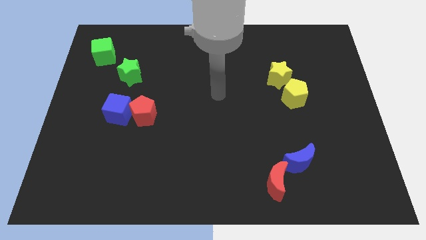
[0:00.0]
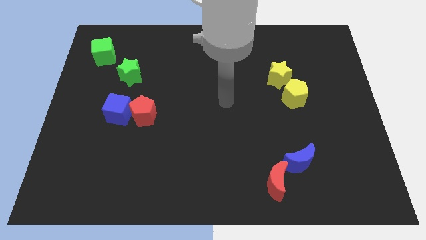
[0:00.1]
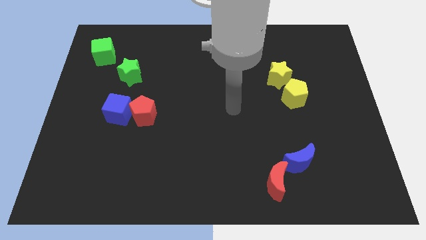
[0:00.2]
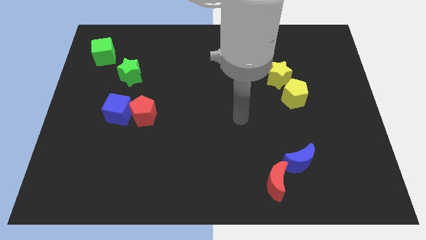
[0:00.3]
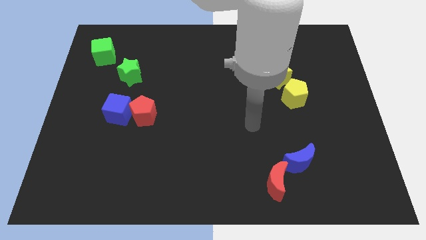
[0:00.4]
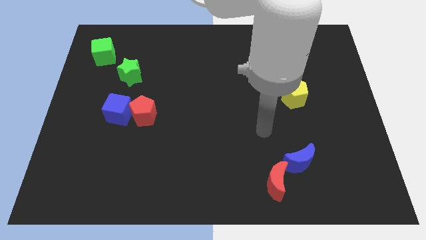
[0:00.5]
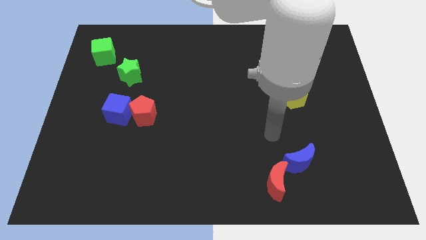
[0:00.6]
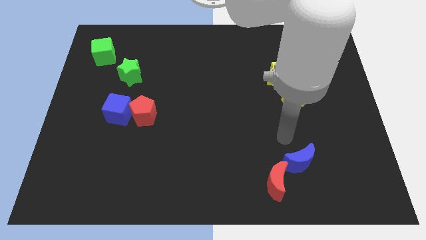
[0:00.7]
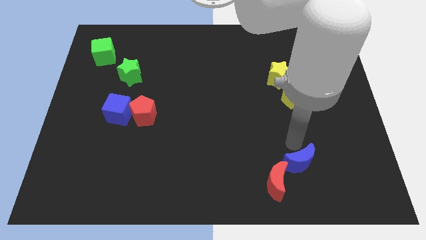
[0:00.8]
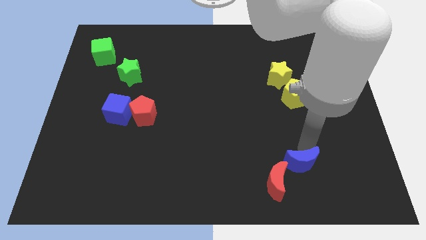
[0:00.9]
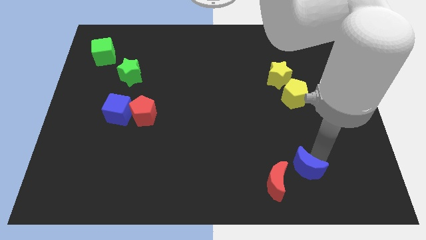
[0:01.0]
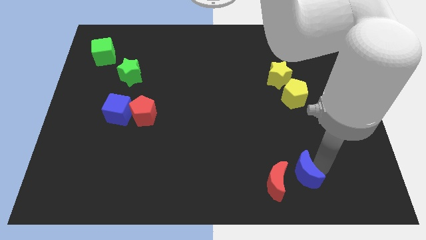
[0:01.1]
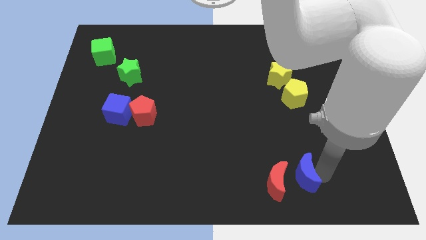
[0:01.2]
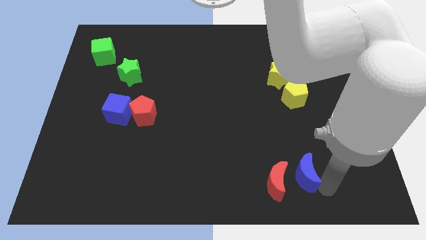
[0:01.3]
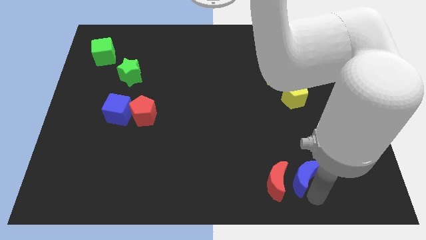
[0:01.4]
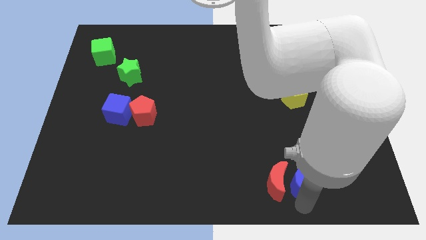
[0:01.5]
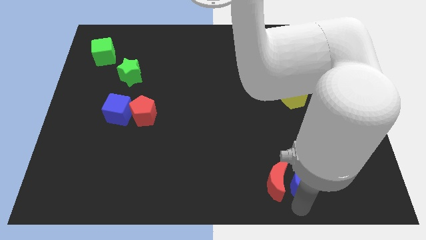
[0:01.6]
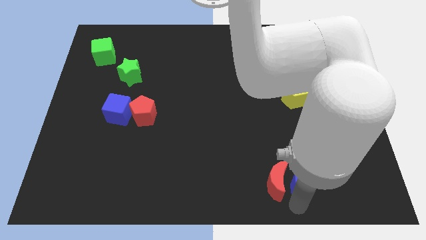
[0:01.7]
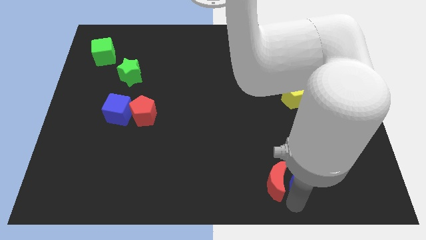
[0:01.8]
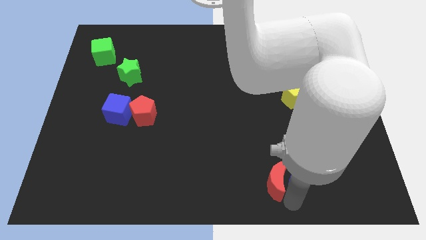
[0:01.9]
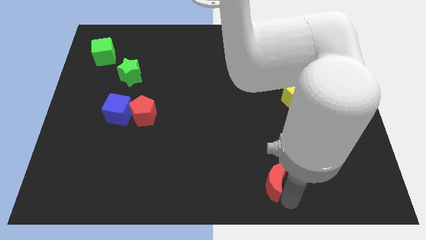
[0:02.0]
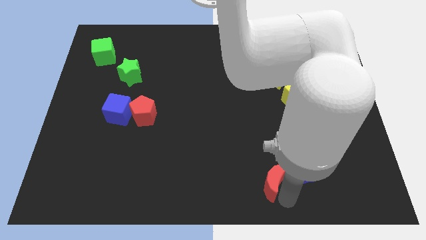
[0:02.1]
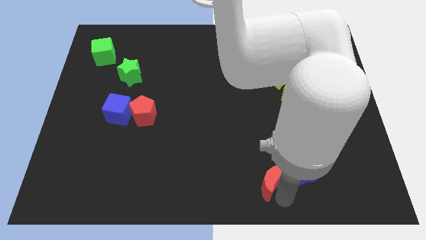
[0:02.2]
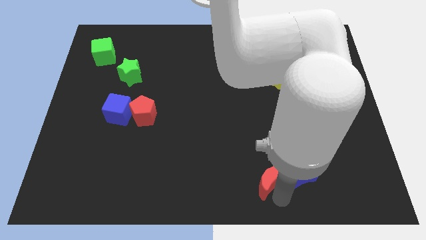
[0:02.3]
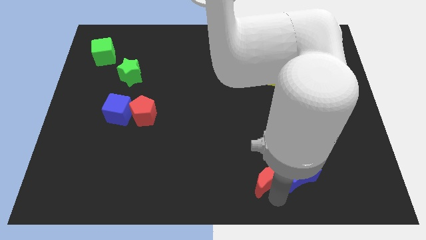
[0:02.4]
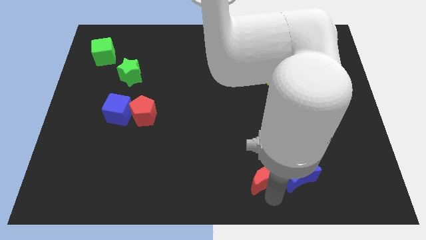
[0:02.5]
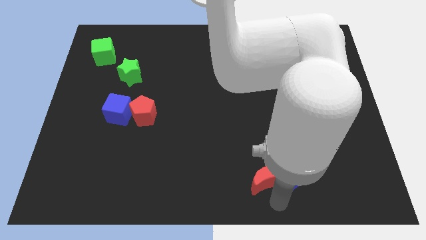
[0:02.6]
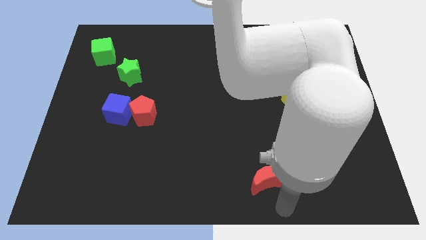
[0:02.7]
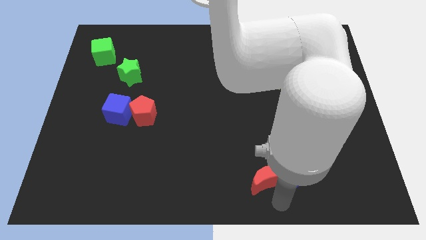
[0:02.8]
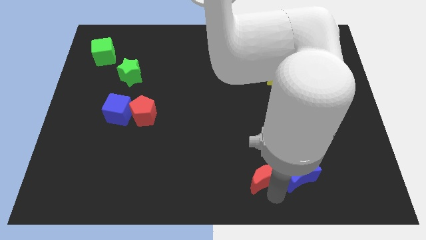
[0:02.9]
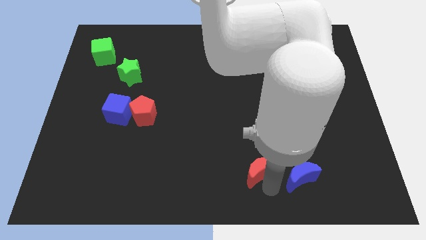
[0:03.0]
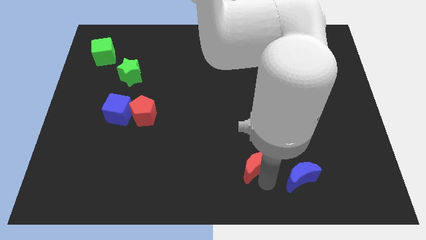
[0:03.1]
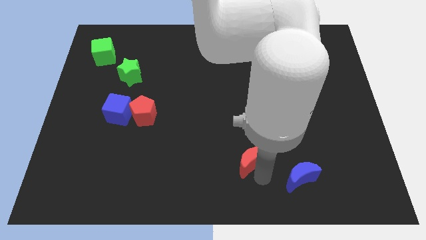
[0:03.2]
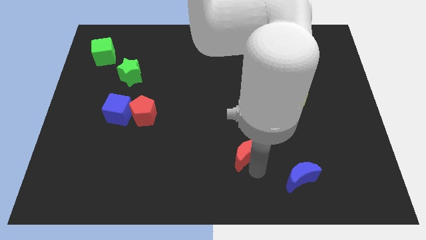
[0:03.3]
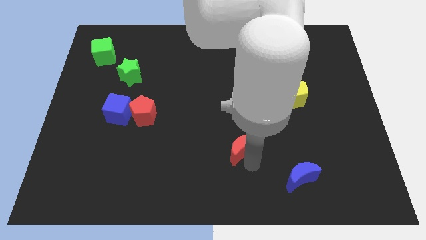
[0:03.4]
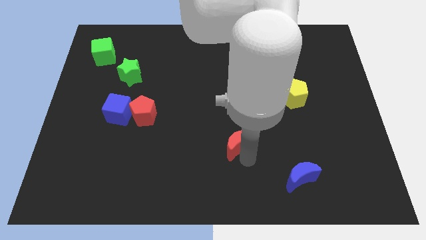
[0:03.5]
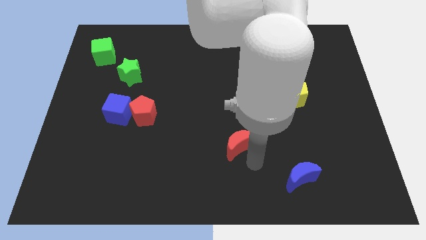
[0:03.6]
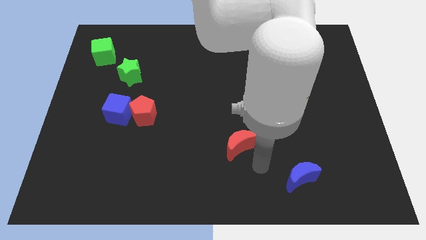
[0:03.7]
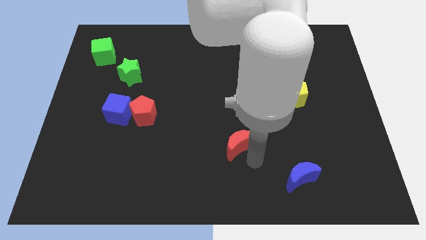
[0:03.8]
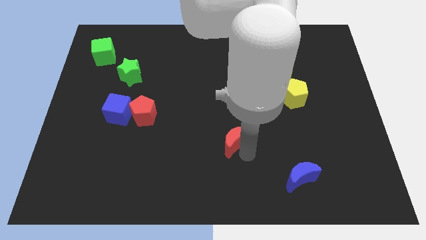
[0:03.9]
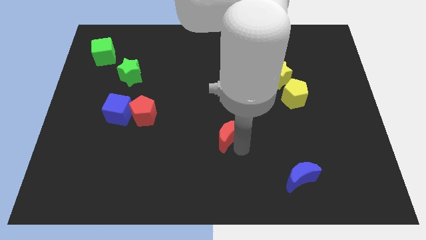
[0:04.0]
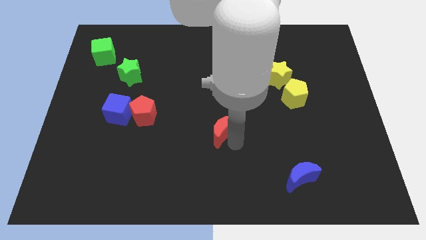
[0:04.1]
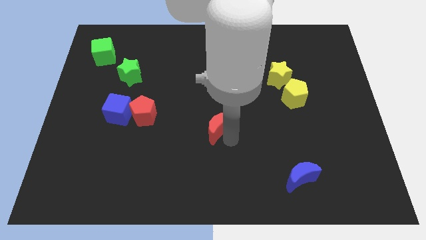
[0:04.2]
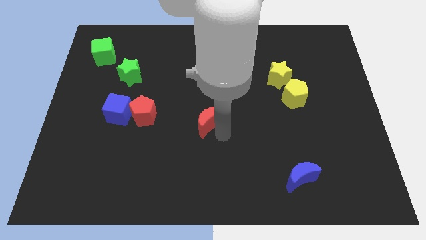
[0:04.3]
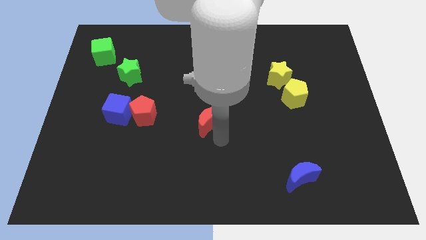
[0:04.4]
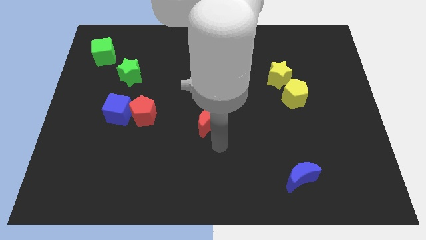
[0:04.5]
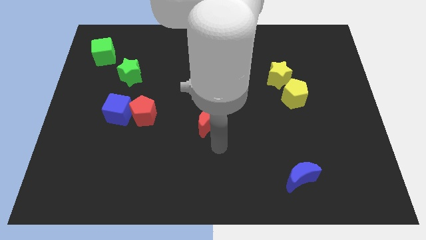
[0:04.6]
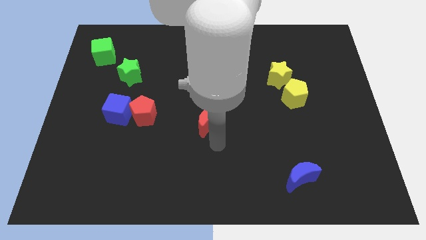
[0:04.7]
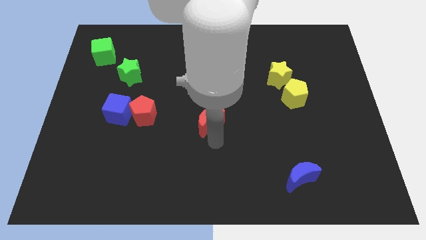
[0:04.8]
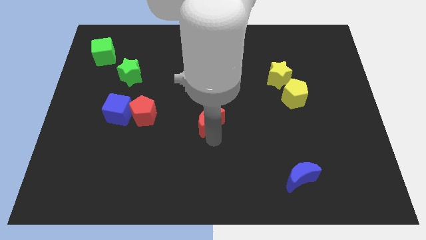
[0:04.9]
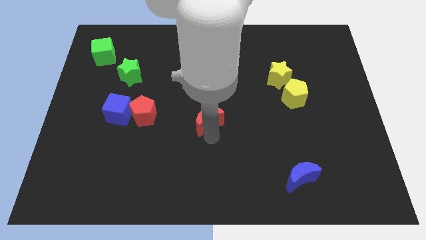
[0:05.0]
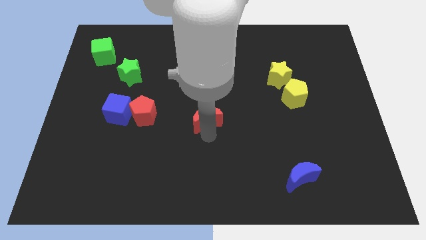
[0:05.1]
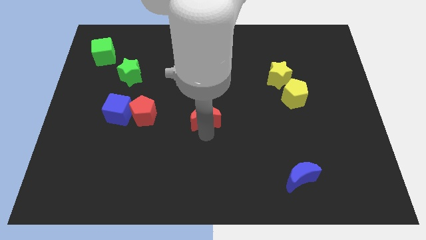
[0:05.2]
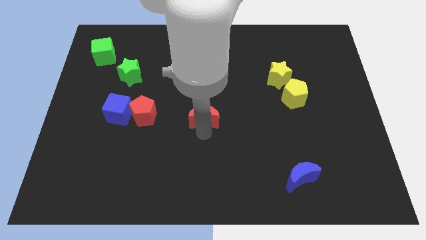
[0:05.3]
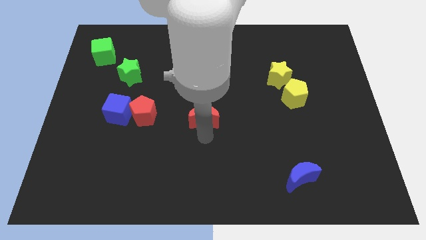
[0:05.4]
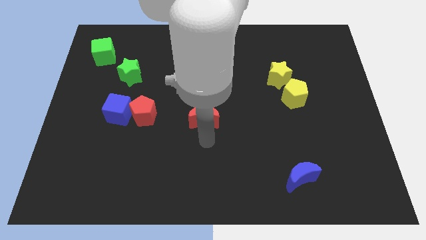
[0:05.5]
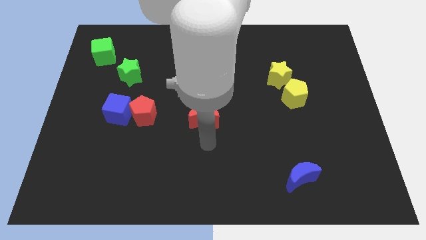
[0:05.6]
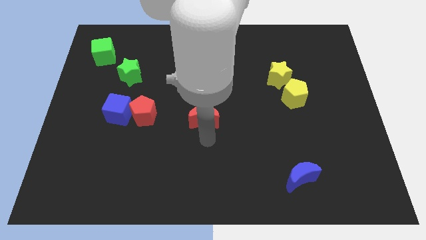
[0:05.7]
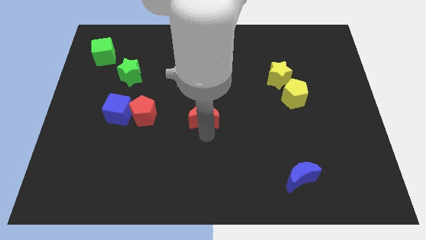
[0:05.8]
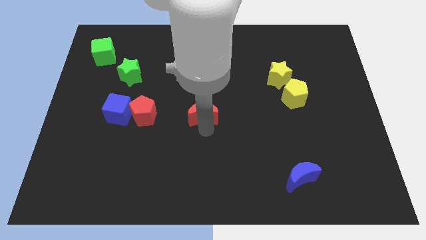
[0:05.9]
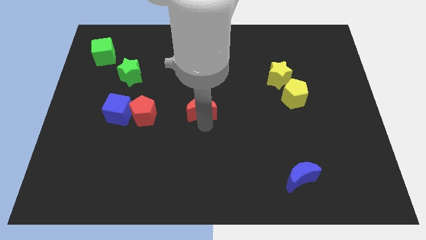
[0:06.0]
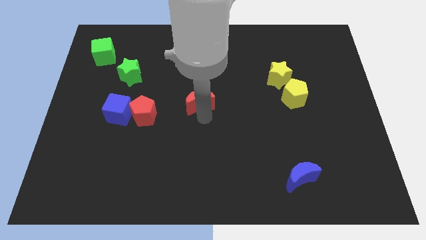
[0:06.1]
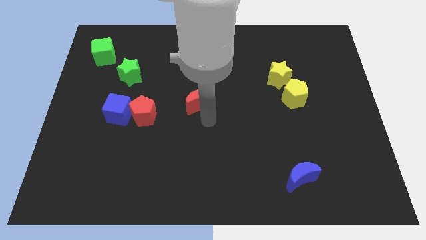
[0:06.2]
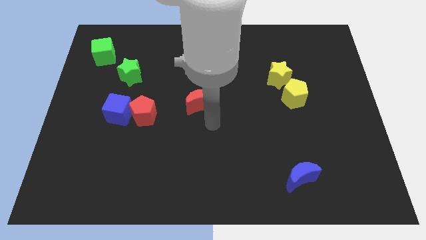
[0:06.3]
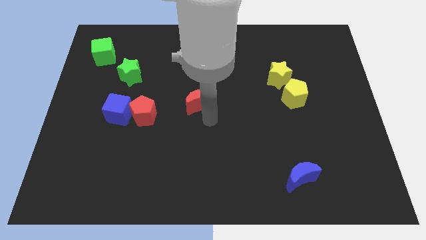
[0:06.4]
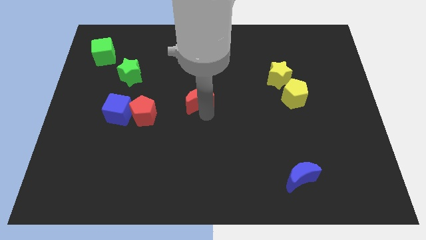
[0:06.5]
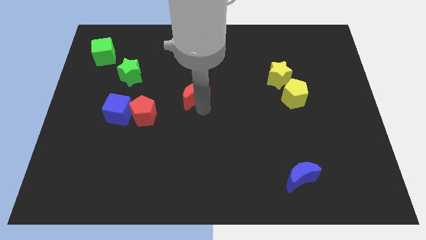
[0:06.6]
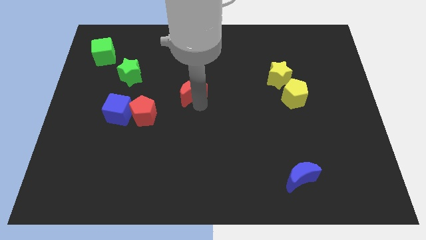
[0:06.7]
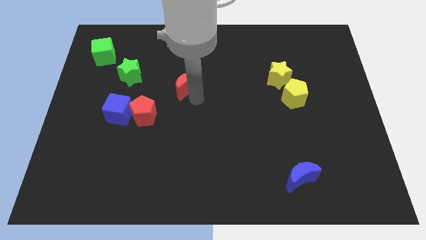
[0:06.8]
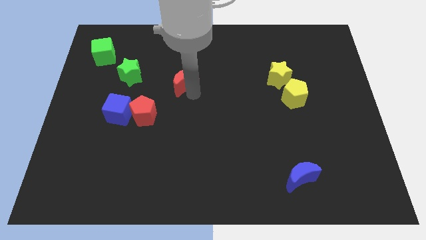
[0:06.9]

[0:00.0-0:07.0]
move the red moon right of the green star
